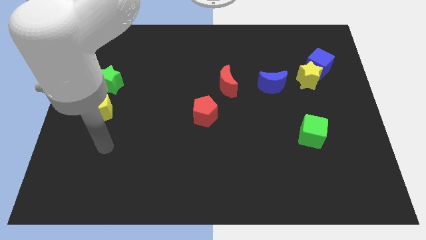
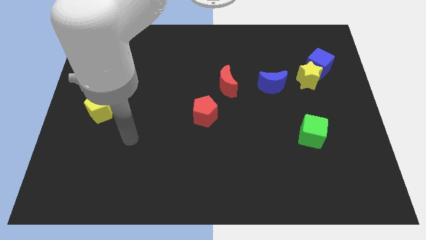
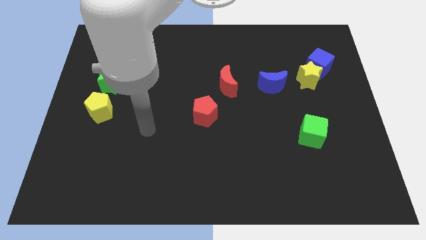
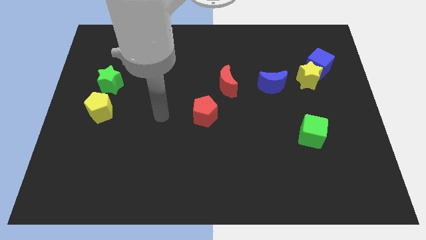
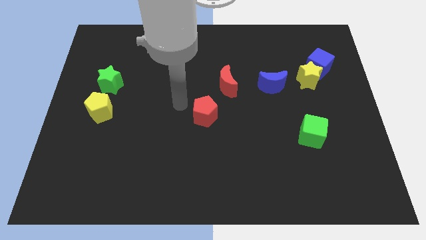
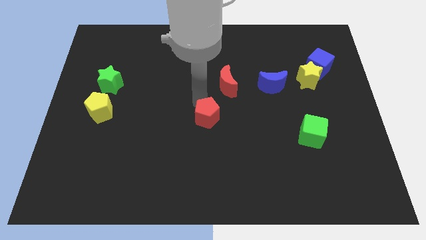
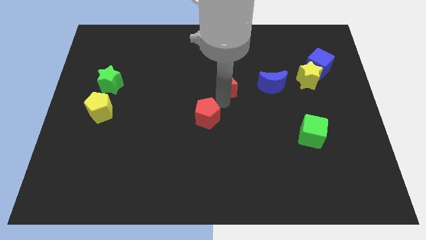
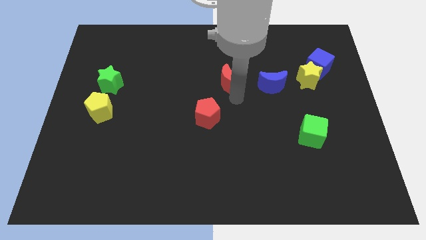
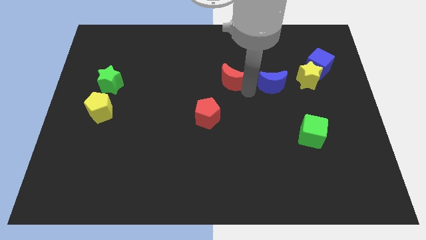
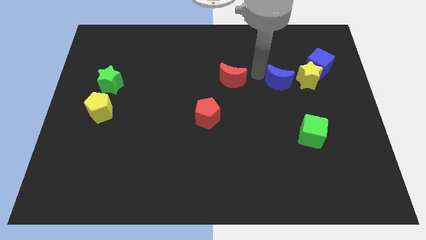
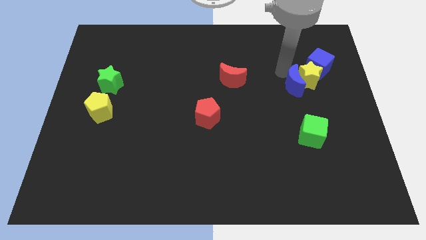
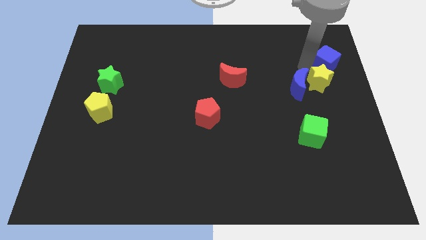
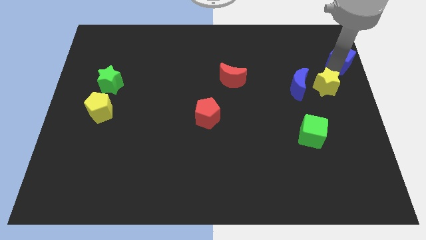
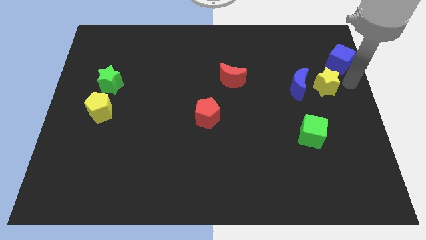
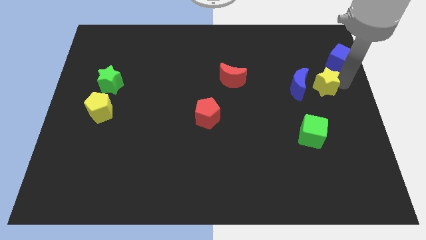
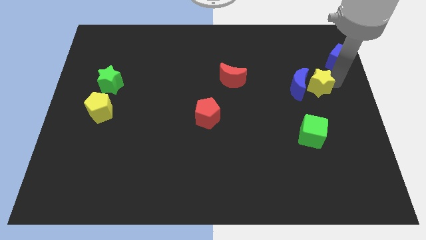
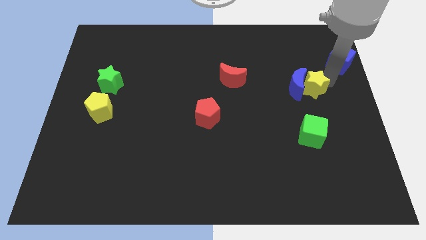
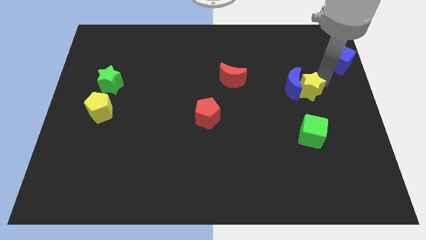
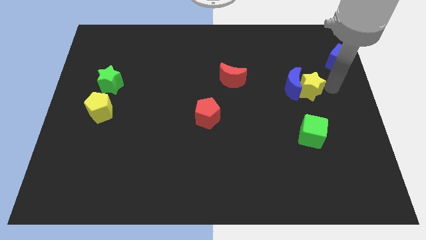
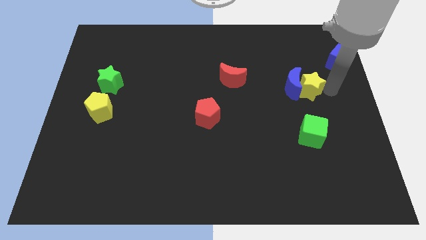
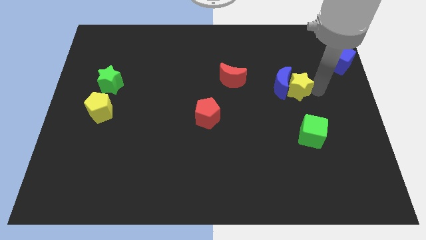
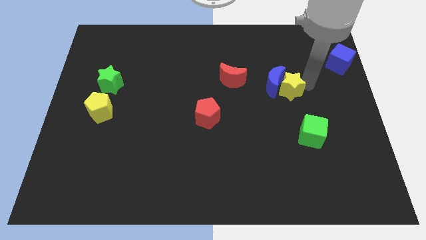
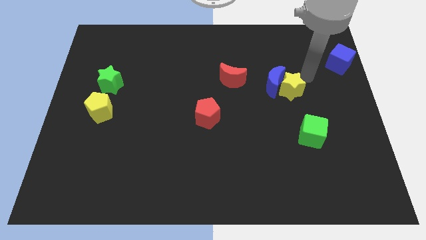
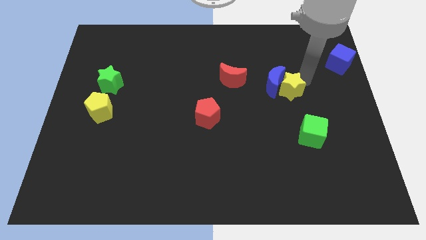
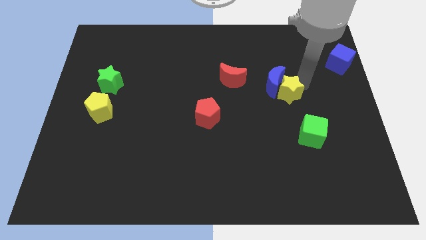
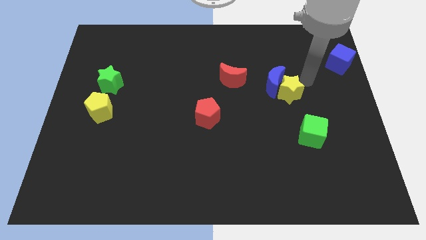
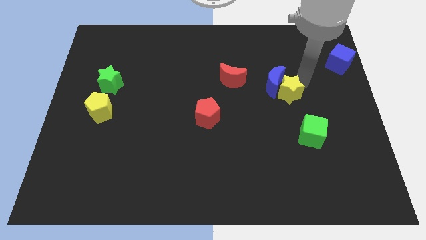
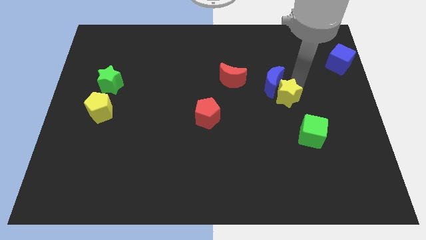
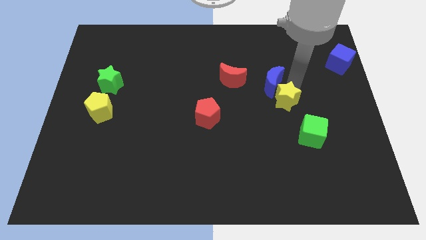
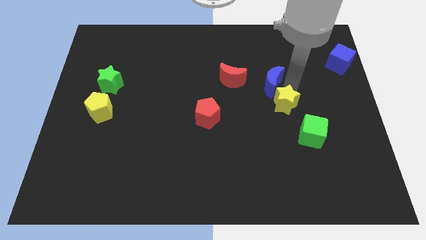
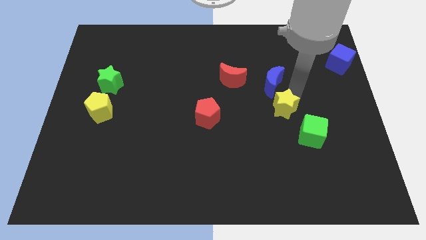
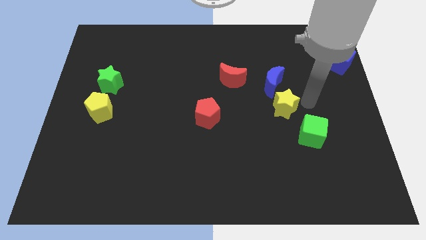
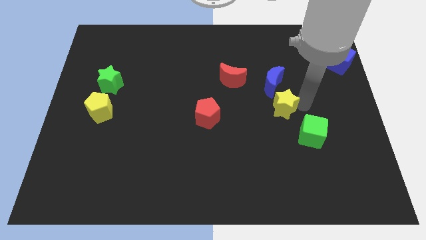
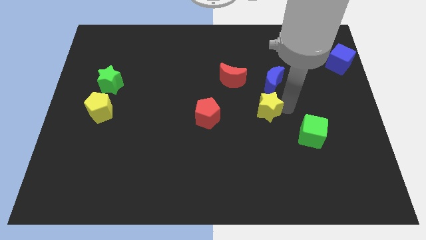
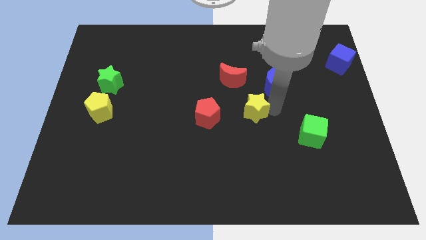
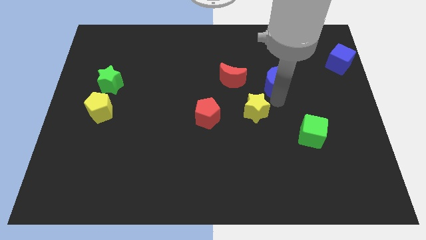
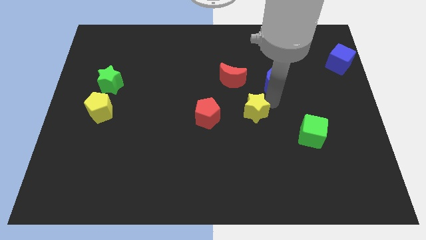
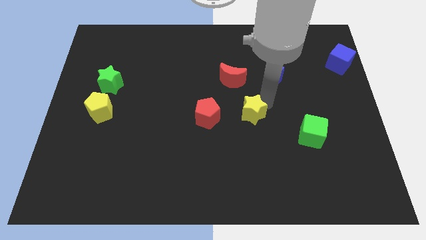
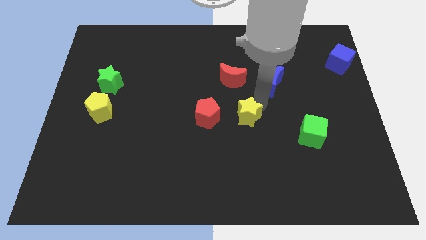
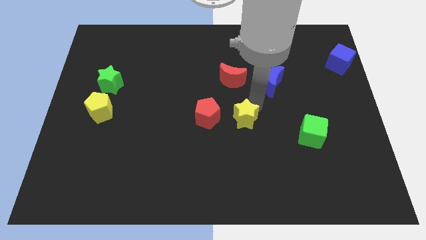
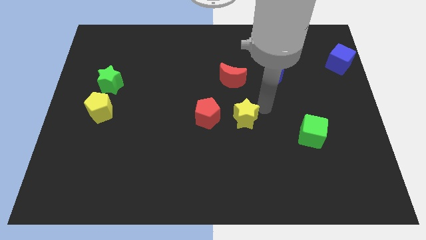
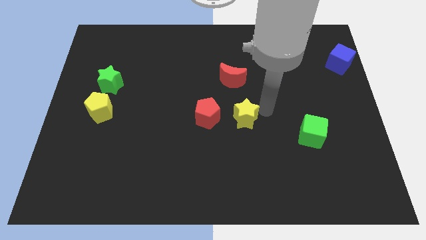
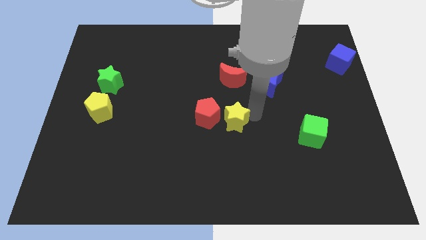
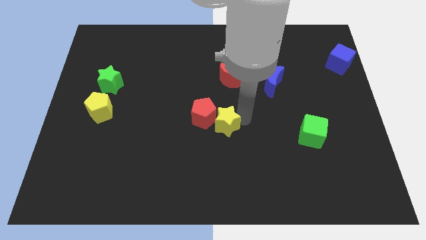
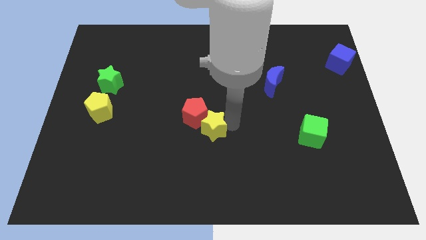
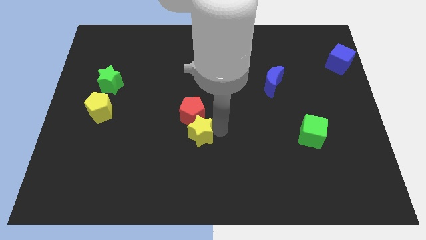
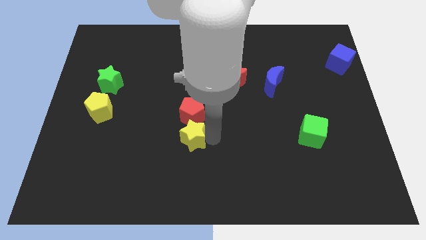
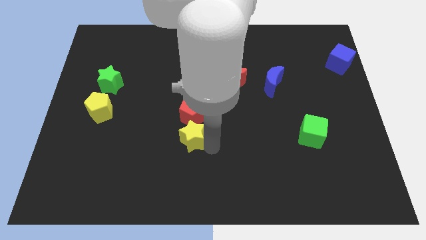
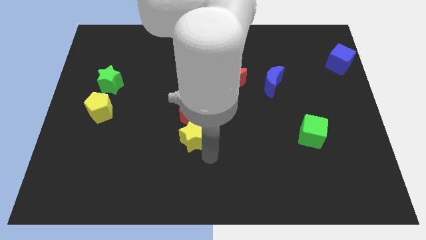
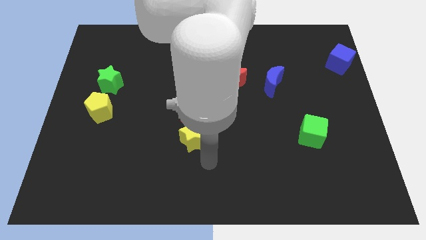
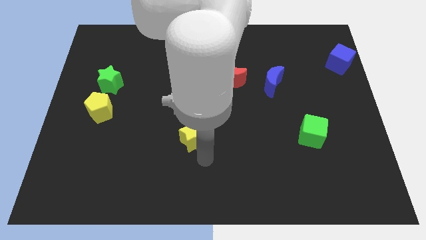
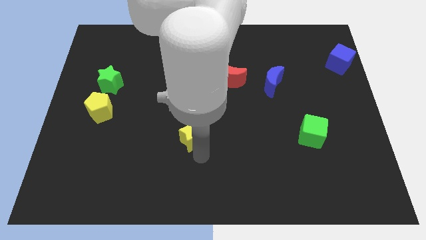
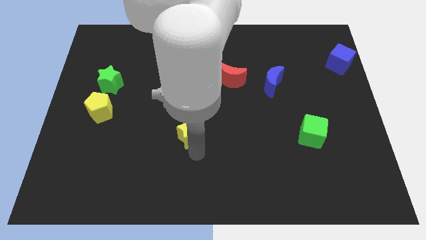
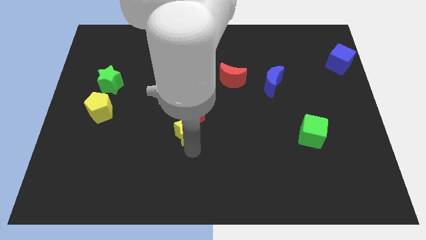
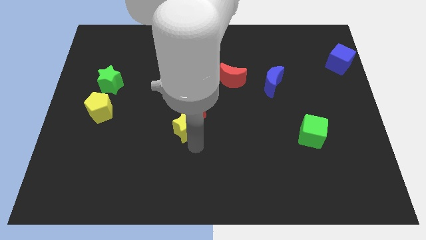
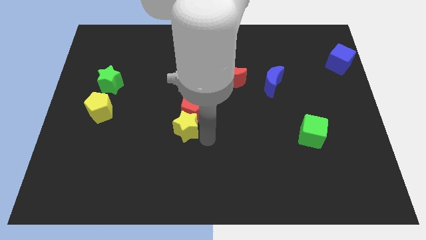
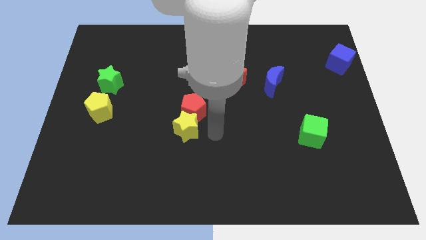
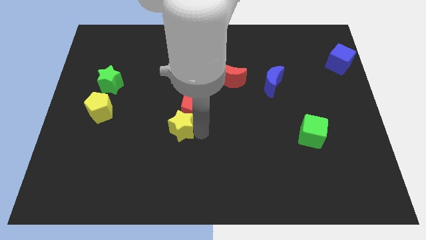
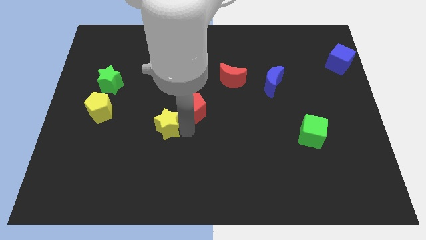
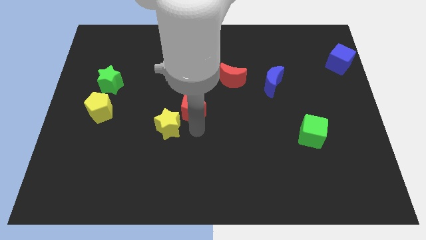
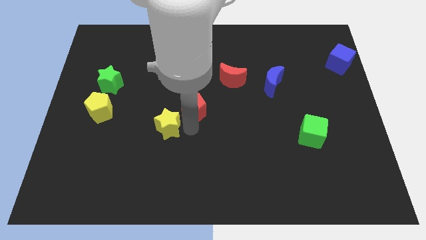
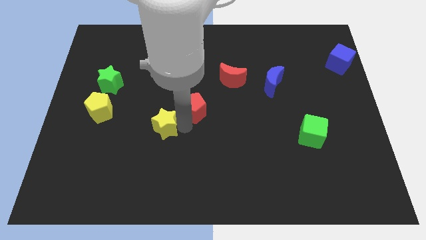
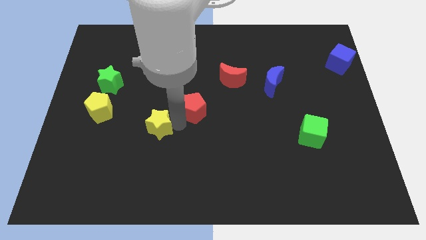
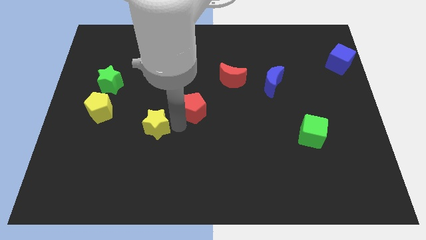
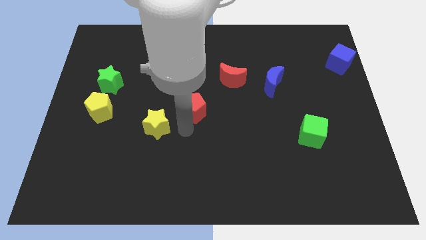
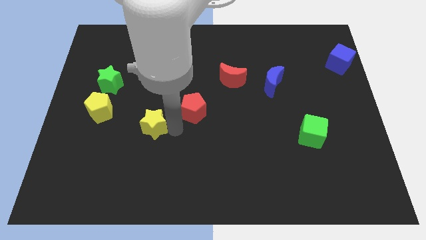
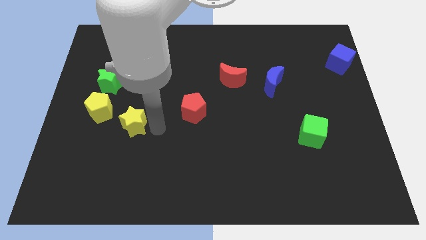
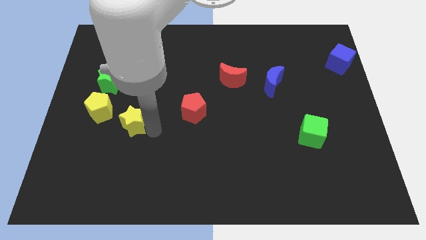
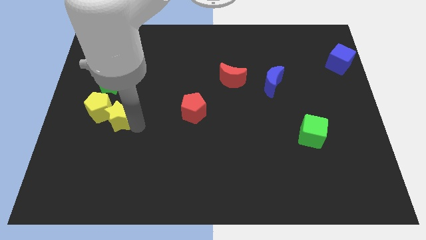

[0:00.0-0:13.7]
put the yellow star to the bottom side of the green star

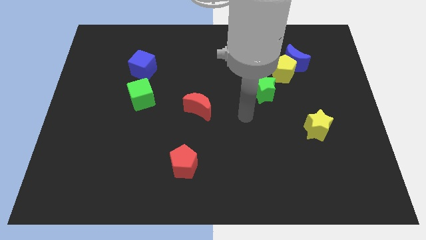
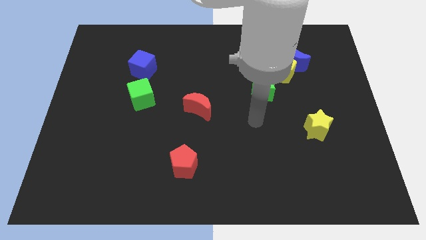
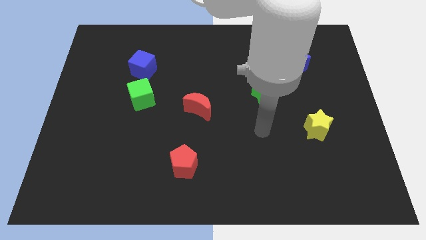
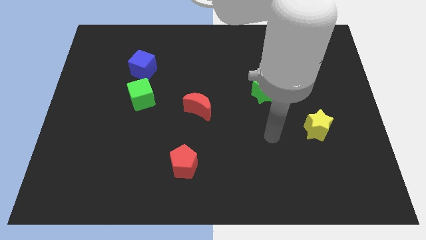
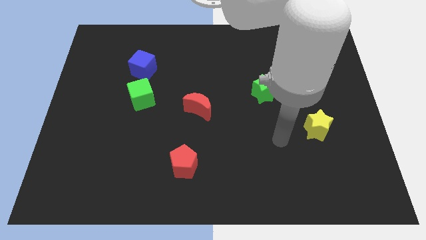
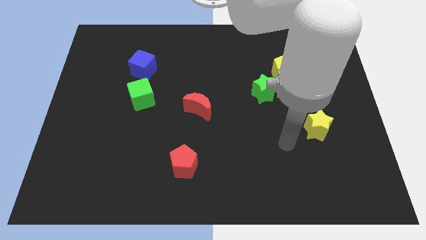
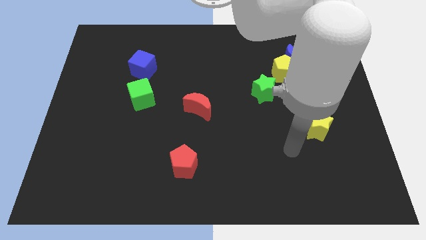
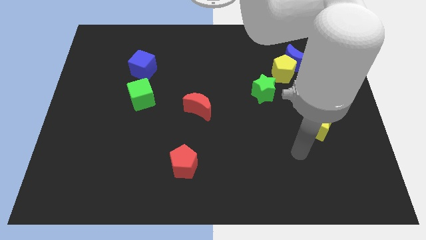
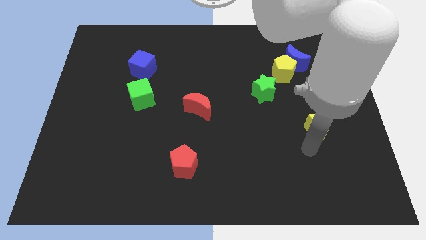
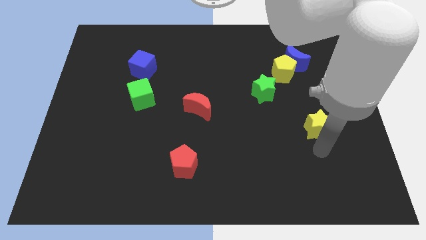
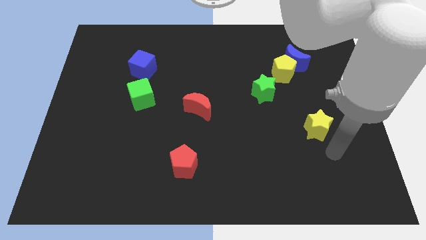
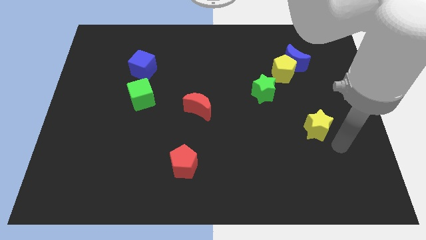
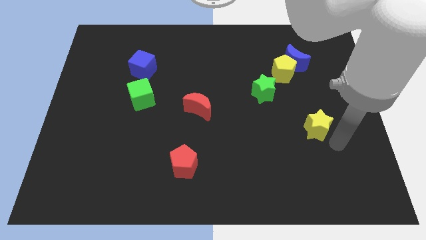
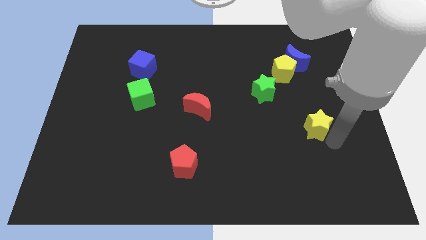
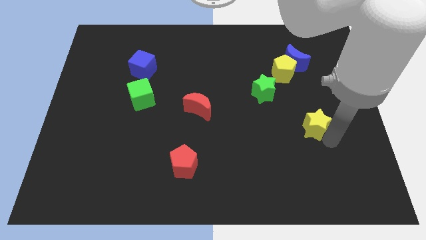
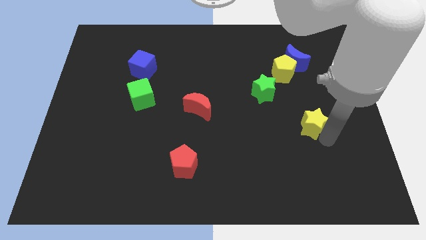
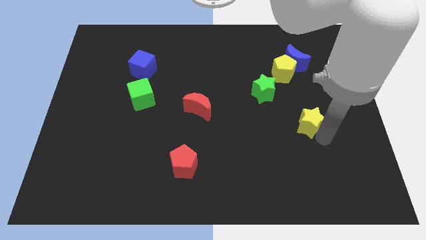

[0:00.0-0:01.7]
push the yellow star to the bottom right side of the green star
